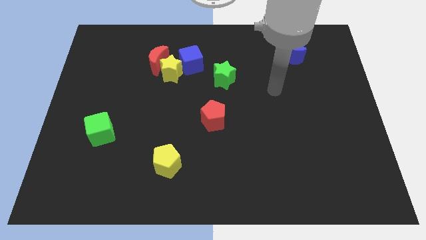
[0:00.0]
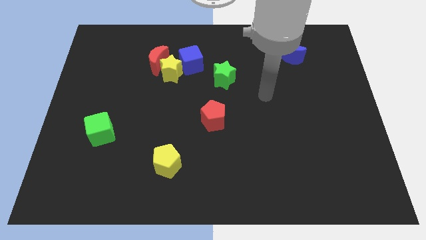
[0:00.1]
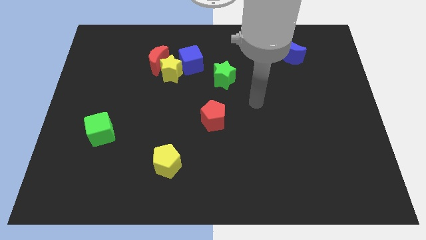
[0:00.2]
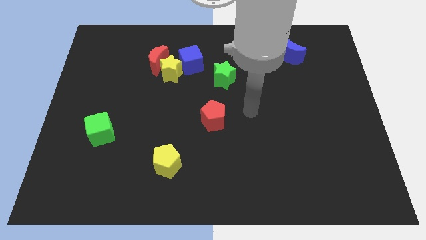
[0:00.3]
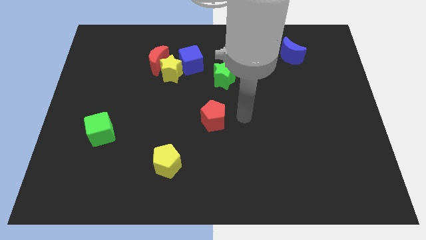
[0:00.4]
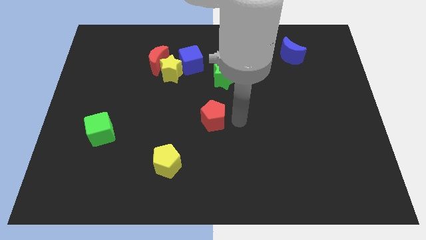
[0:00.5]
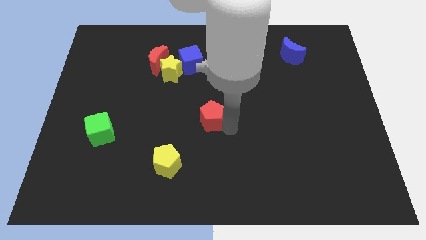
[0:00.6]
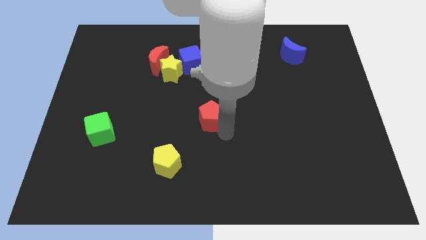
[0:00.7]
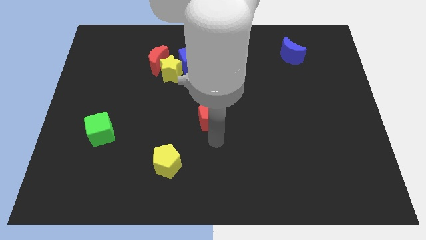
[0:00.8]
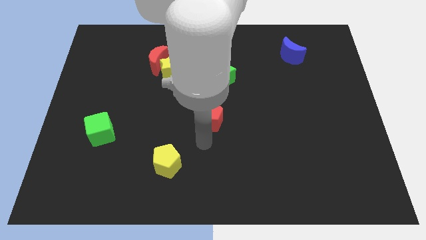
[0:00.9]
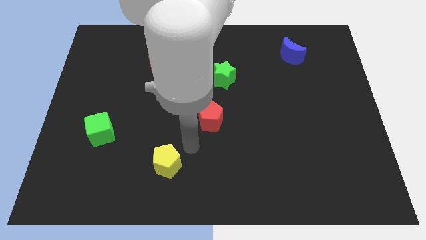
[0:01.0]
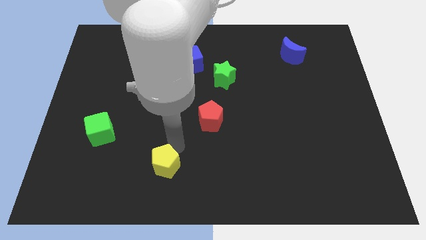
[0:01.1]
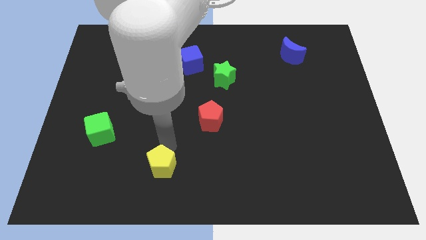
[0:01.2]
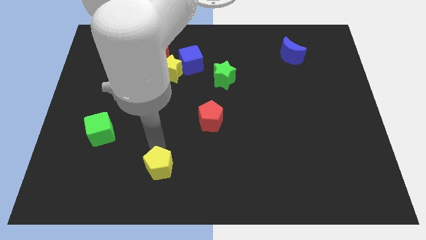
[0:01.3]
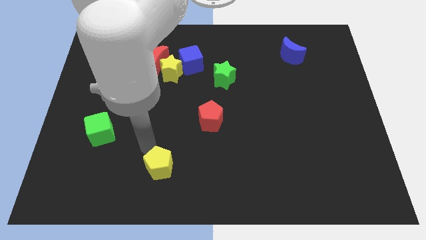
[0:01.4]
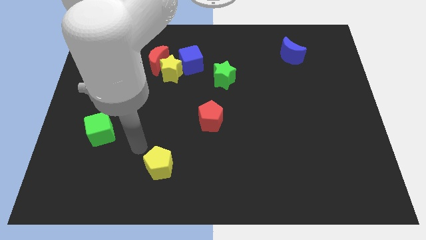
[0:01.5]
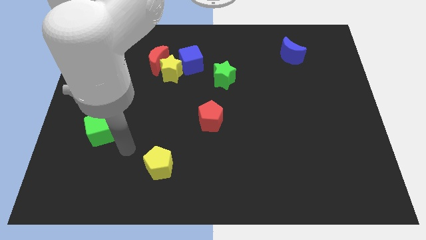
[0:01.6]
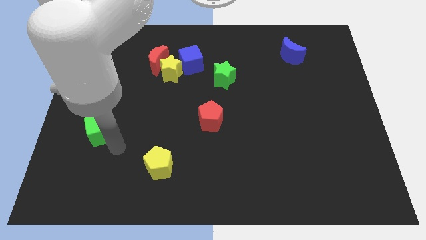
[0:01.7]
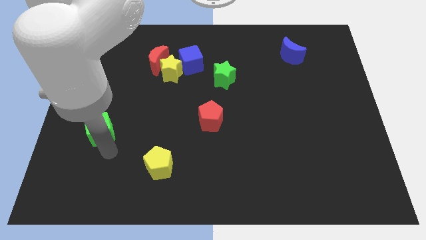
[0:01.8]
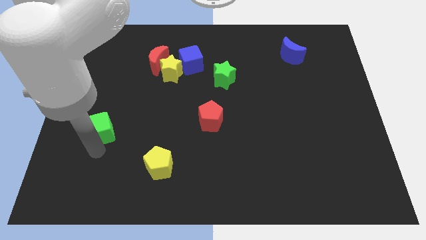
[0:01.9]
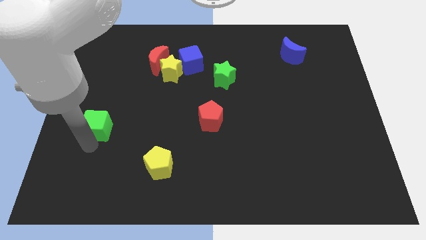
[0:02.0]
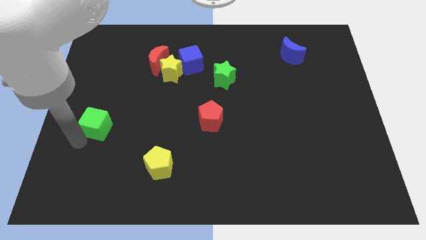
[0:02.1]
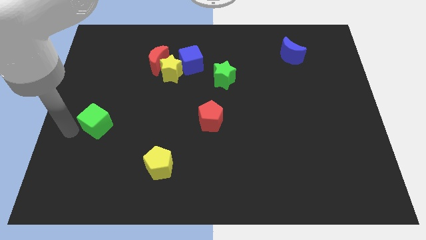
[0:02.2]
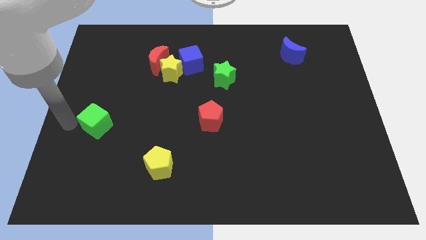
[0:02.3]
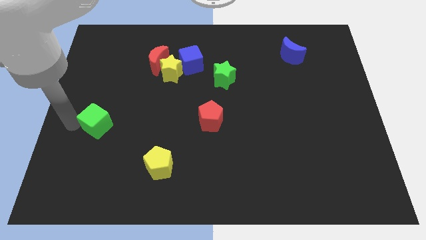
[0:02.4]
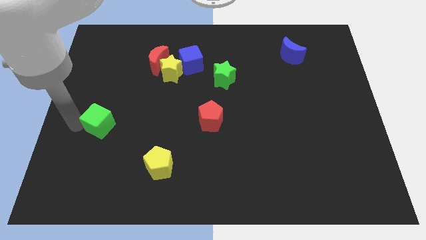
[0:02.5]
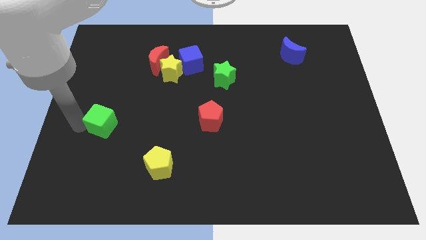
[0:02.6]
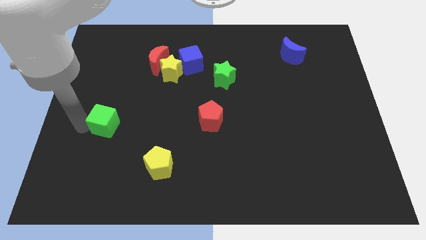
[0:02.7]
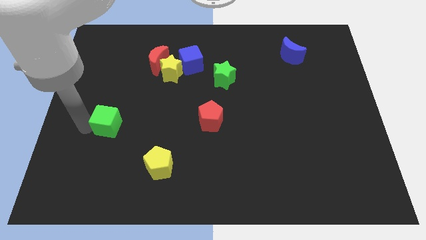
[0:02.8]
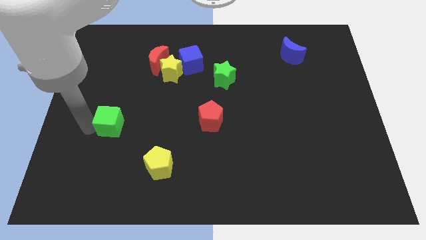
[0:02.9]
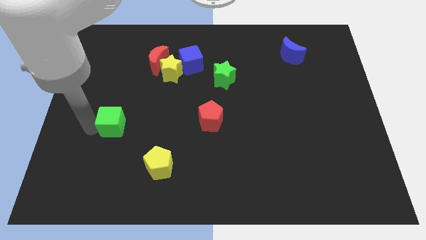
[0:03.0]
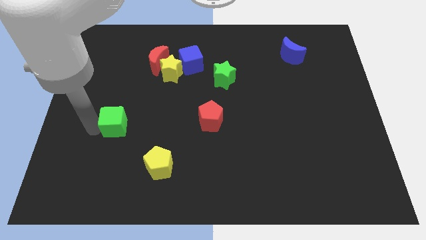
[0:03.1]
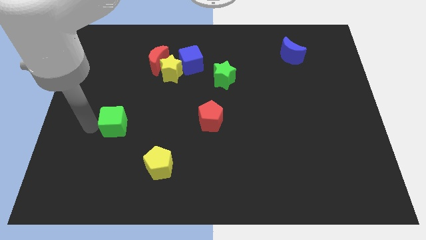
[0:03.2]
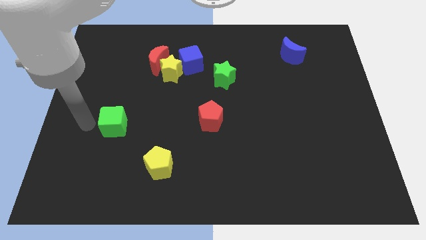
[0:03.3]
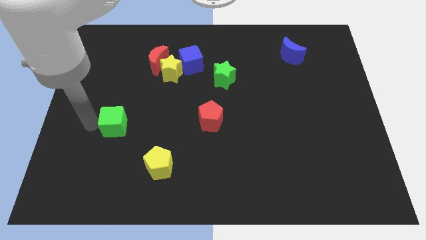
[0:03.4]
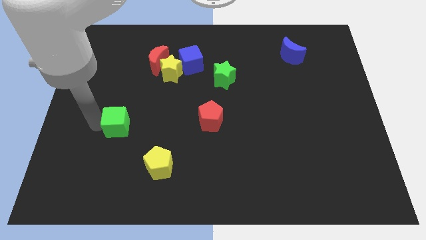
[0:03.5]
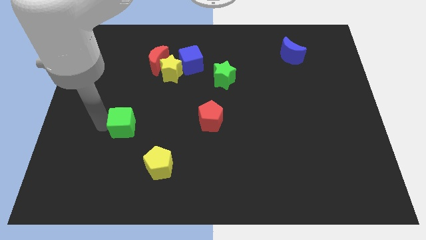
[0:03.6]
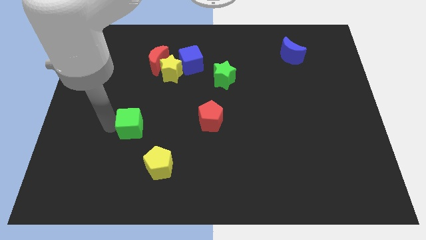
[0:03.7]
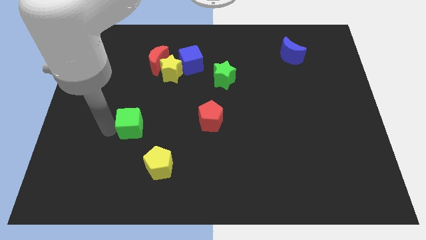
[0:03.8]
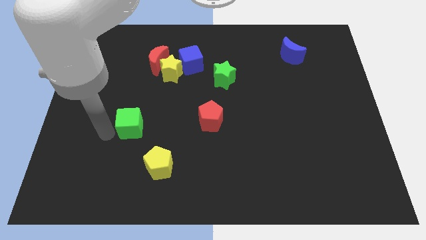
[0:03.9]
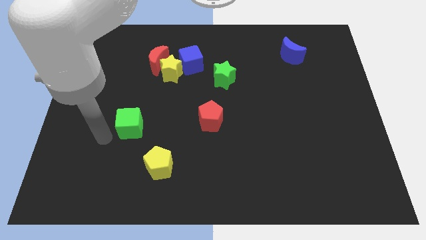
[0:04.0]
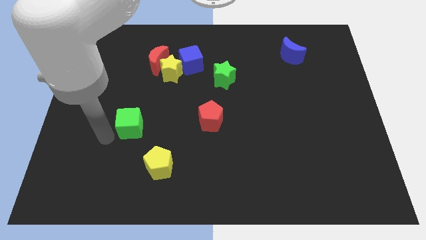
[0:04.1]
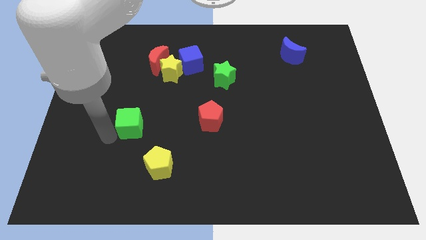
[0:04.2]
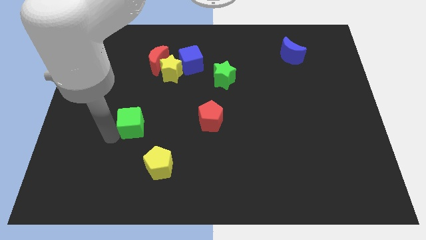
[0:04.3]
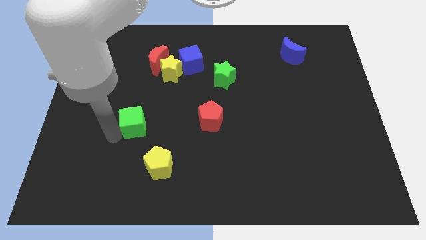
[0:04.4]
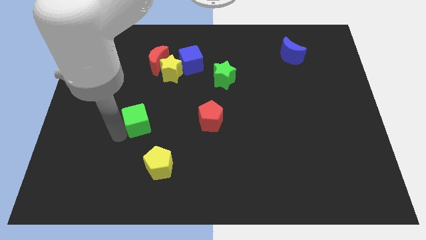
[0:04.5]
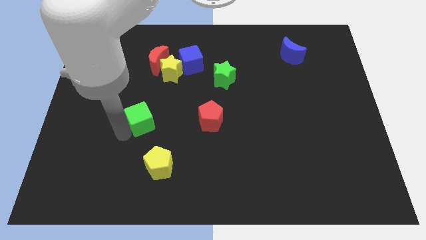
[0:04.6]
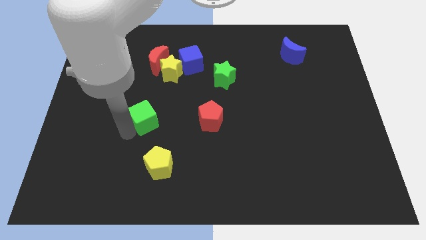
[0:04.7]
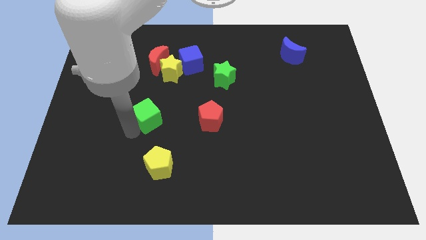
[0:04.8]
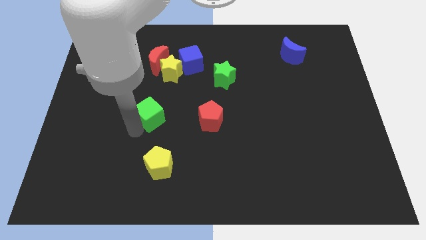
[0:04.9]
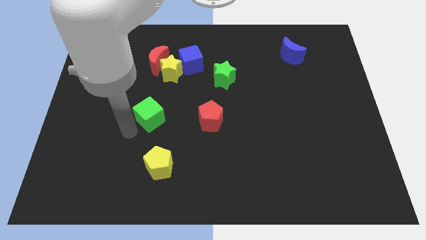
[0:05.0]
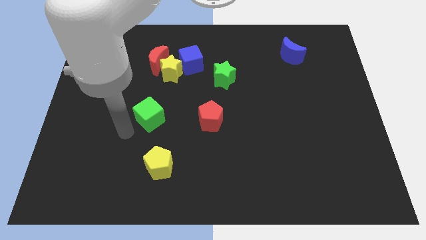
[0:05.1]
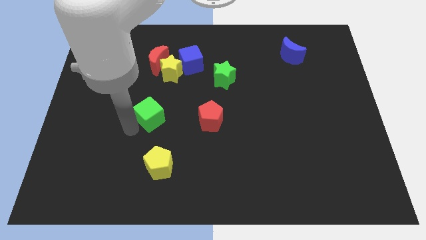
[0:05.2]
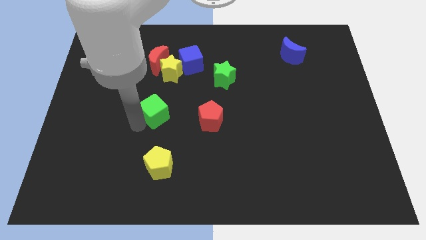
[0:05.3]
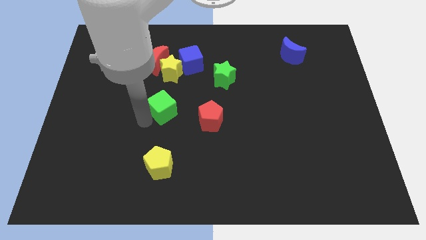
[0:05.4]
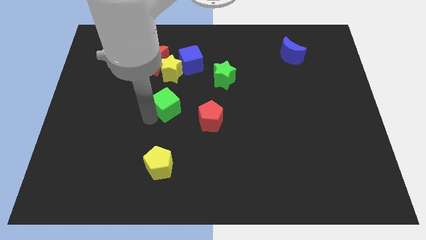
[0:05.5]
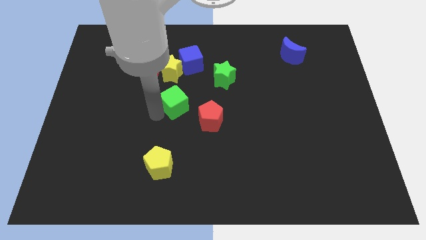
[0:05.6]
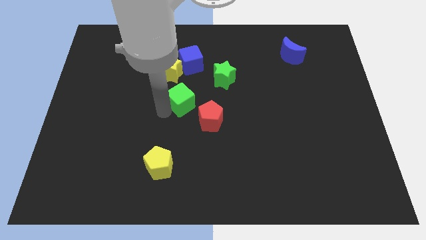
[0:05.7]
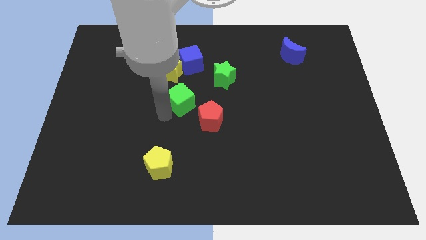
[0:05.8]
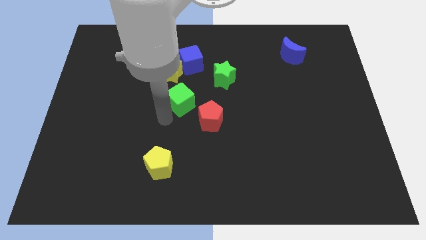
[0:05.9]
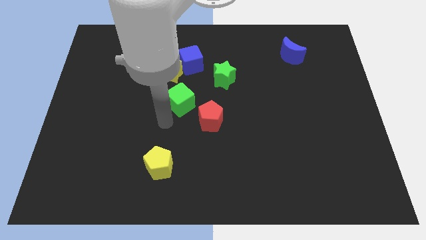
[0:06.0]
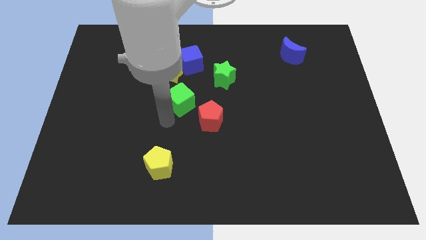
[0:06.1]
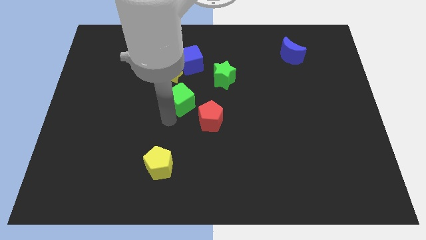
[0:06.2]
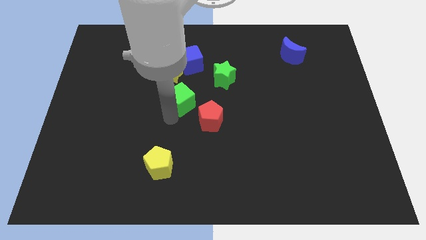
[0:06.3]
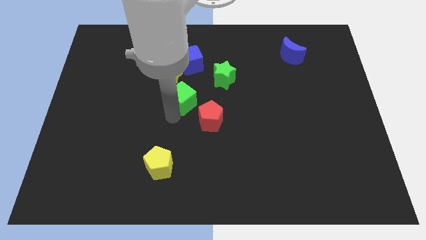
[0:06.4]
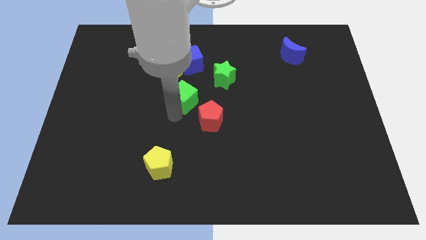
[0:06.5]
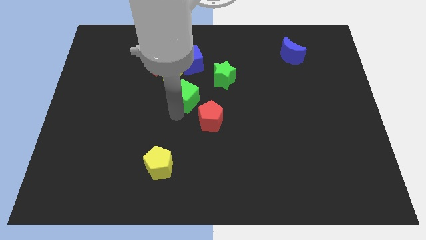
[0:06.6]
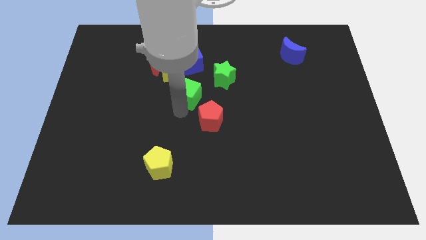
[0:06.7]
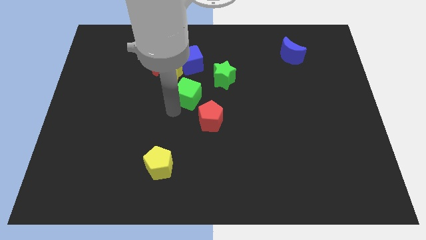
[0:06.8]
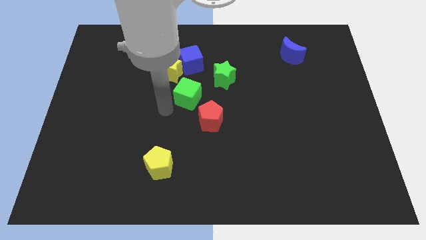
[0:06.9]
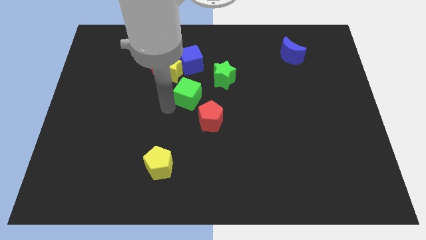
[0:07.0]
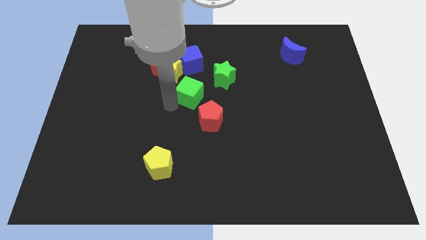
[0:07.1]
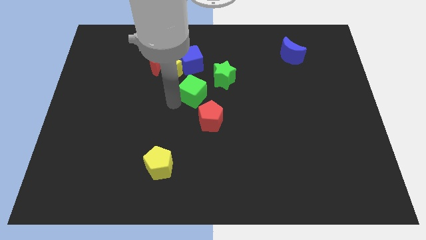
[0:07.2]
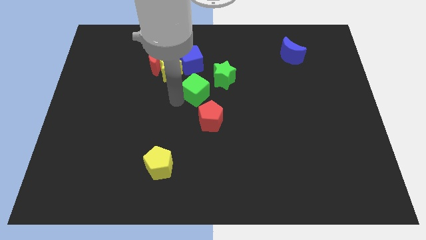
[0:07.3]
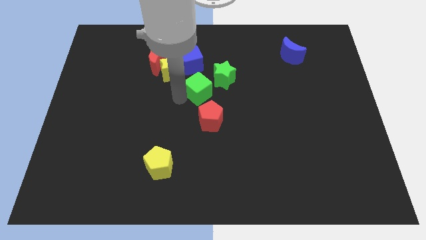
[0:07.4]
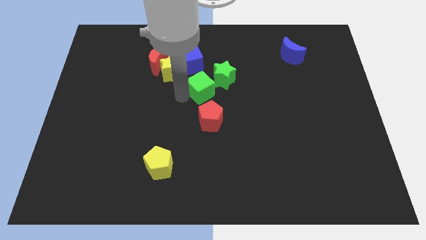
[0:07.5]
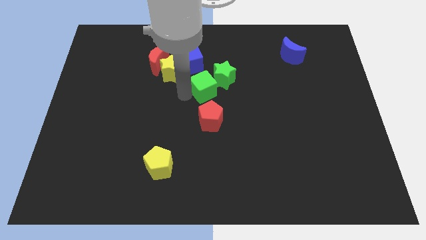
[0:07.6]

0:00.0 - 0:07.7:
slide the green cube to the green star
